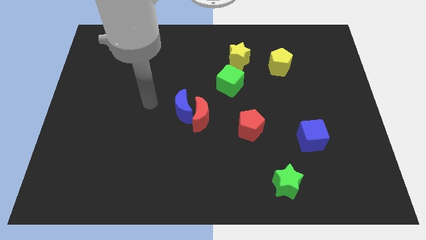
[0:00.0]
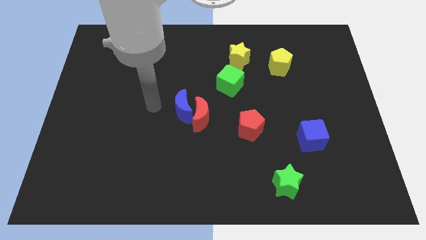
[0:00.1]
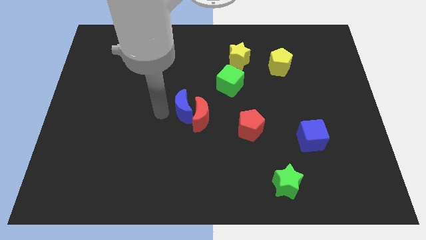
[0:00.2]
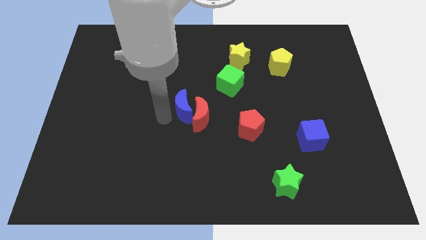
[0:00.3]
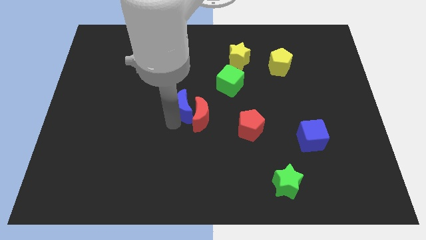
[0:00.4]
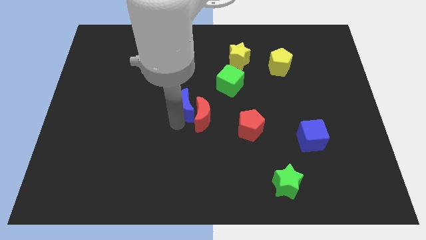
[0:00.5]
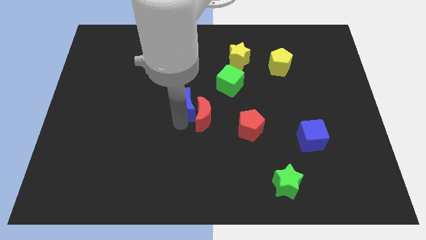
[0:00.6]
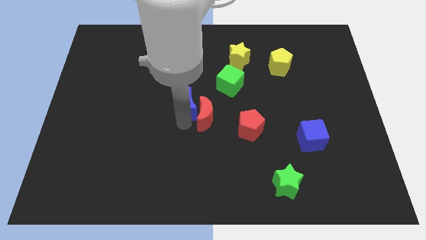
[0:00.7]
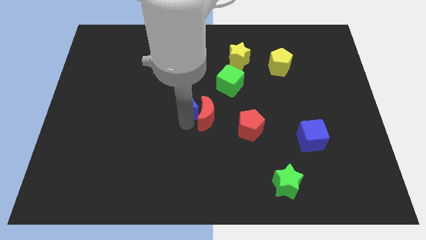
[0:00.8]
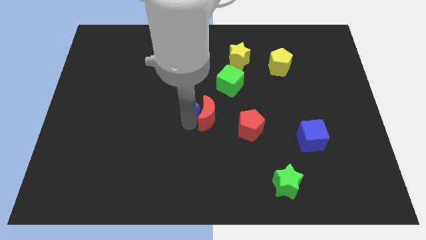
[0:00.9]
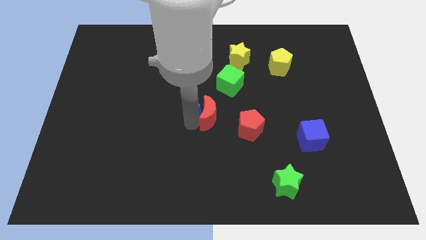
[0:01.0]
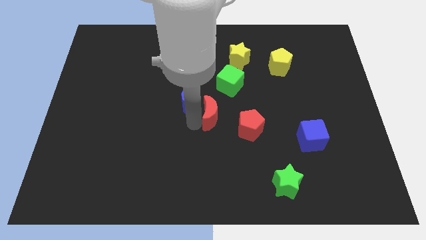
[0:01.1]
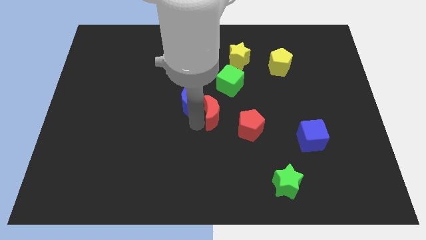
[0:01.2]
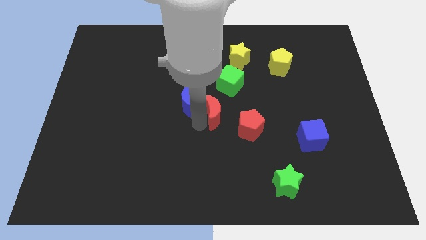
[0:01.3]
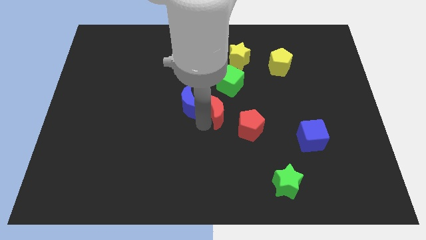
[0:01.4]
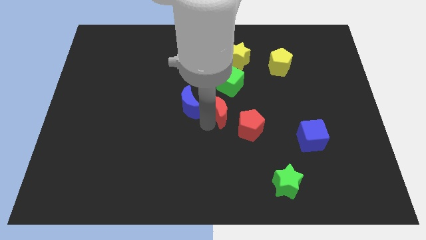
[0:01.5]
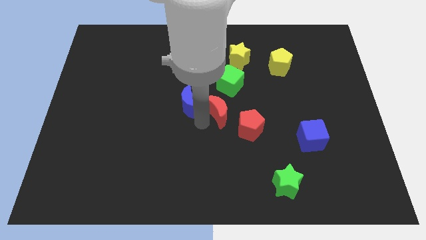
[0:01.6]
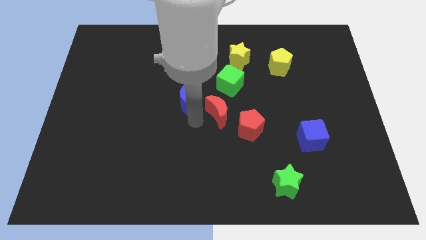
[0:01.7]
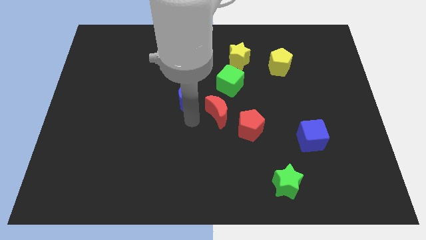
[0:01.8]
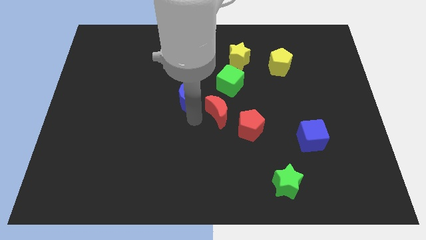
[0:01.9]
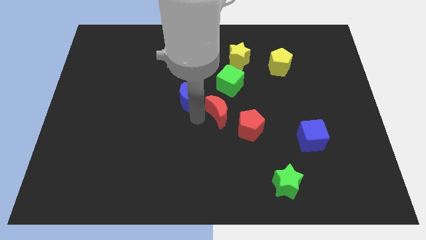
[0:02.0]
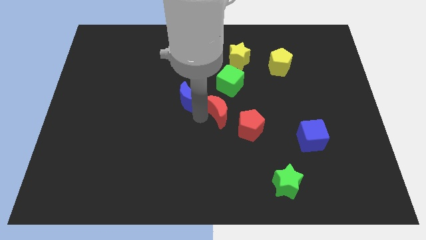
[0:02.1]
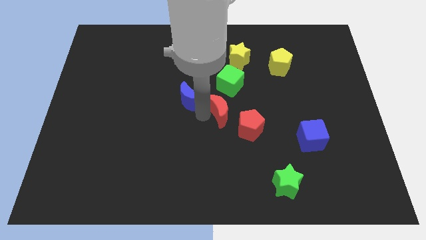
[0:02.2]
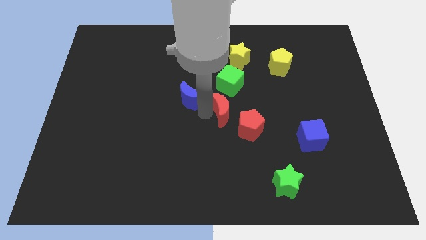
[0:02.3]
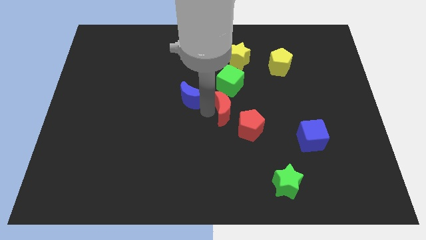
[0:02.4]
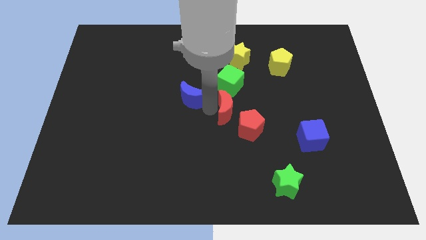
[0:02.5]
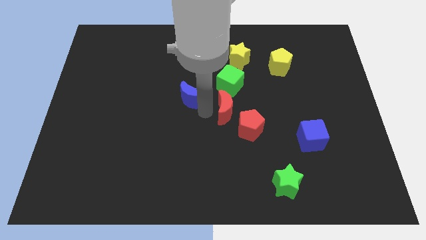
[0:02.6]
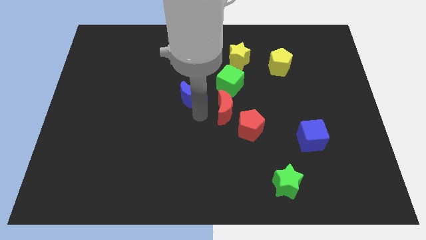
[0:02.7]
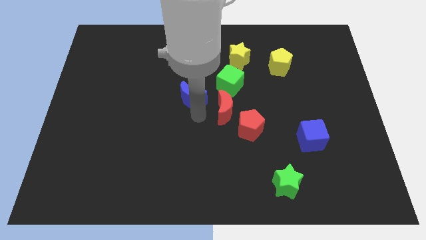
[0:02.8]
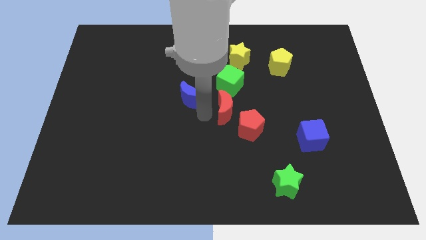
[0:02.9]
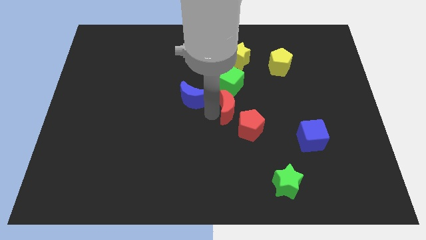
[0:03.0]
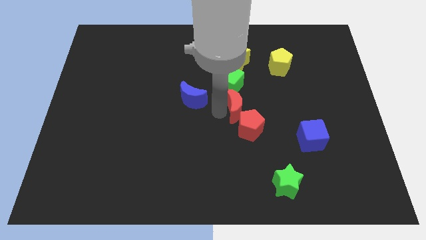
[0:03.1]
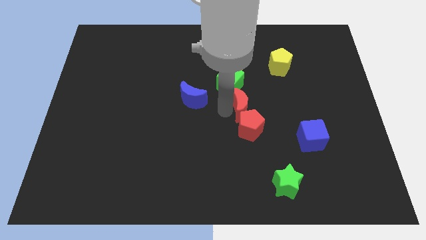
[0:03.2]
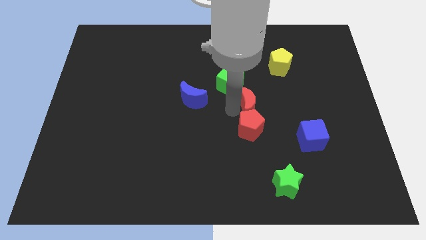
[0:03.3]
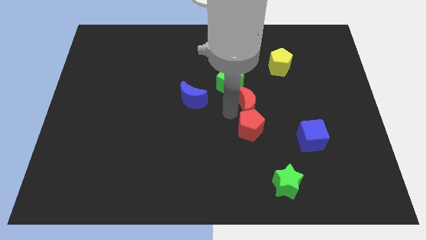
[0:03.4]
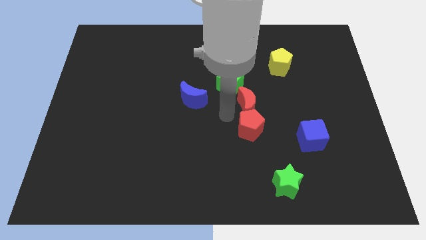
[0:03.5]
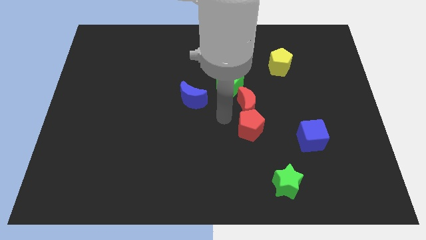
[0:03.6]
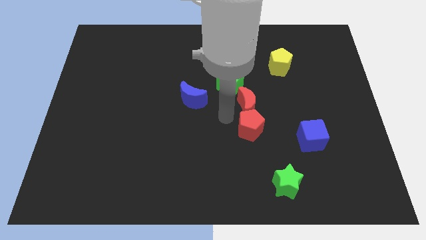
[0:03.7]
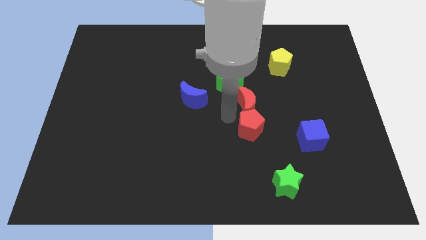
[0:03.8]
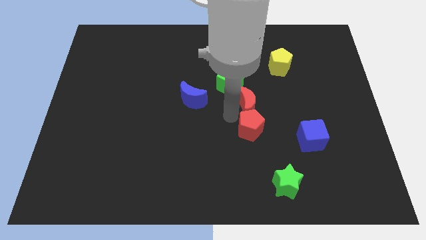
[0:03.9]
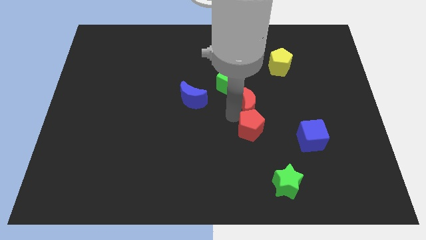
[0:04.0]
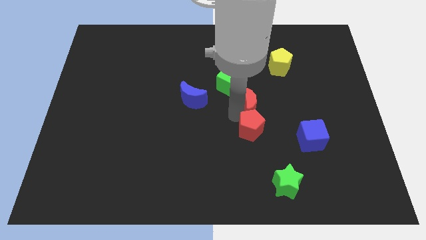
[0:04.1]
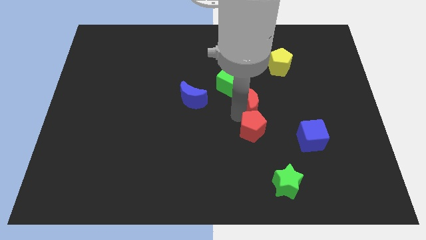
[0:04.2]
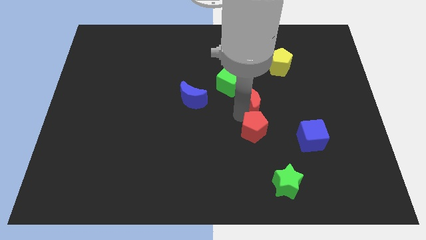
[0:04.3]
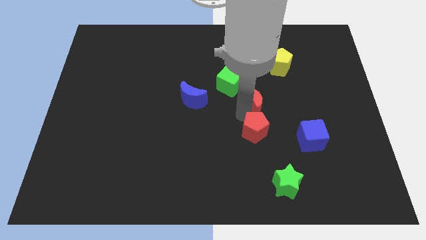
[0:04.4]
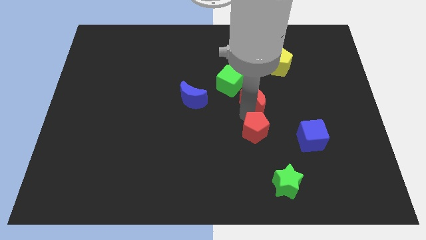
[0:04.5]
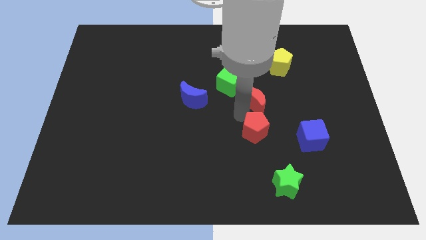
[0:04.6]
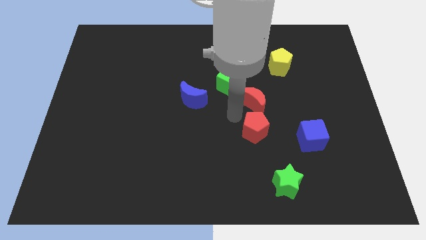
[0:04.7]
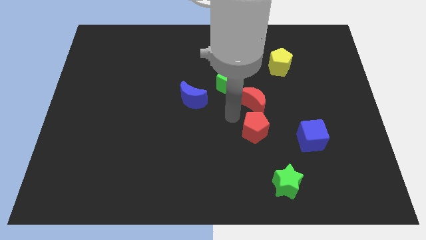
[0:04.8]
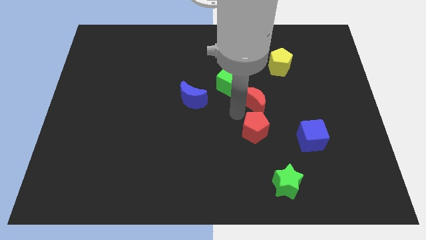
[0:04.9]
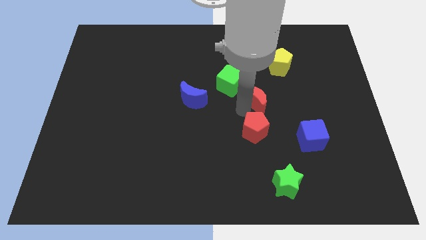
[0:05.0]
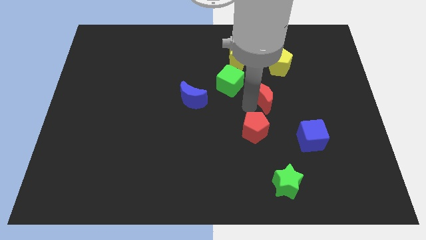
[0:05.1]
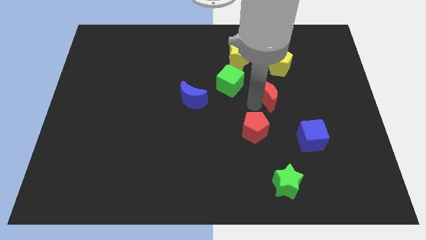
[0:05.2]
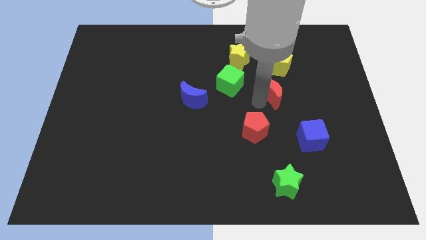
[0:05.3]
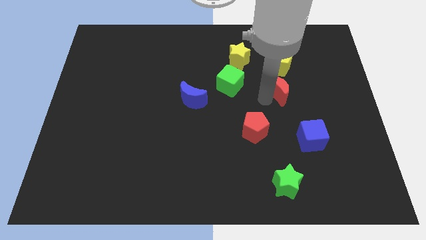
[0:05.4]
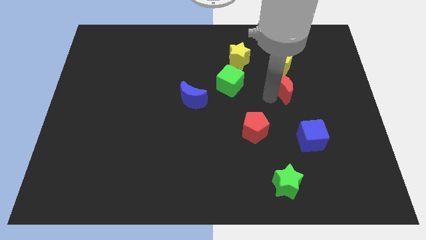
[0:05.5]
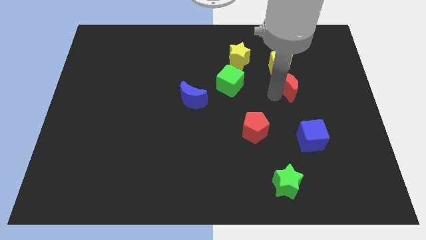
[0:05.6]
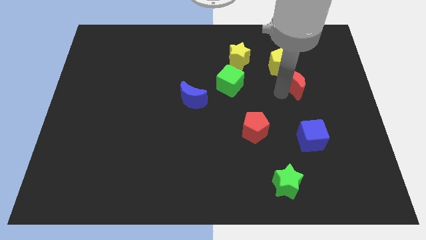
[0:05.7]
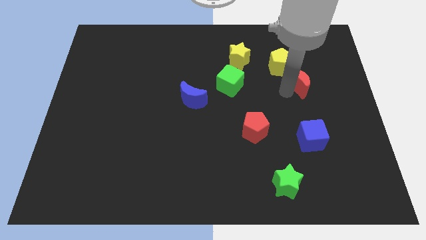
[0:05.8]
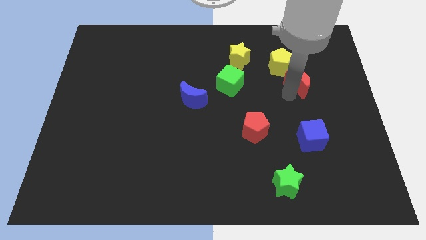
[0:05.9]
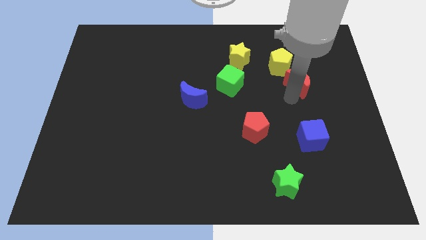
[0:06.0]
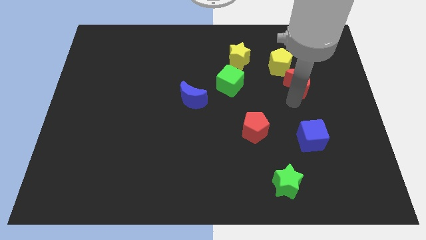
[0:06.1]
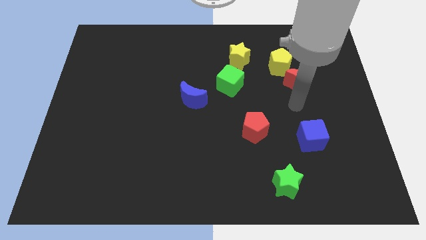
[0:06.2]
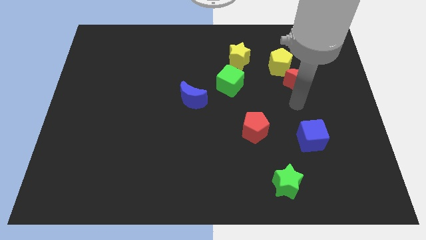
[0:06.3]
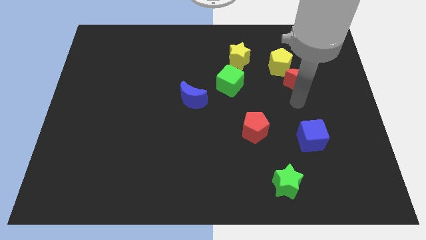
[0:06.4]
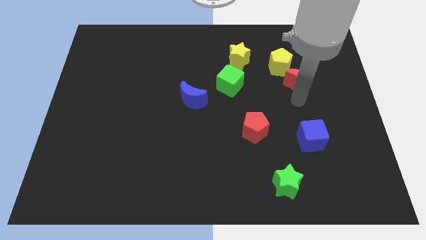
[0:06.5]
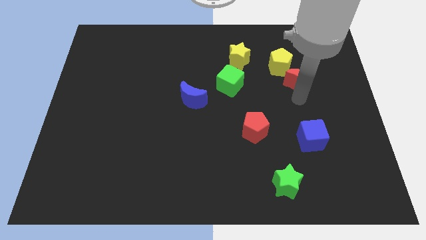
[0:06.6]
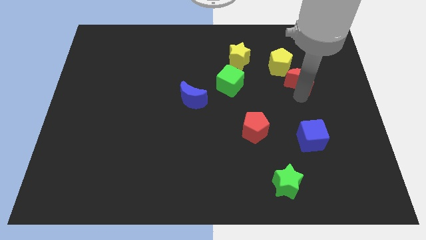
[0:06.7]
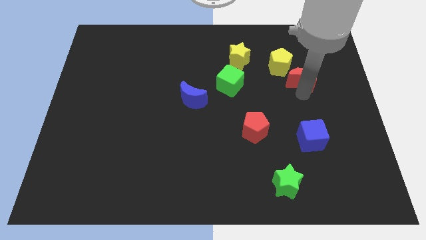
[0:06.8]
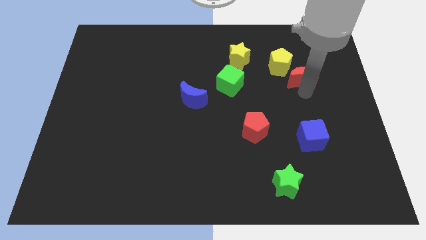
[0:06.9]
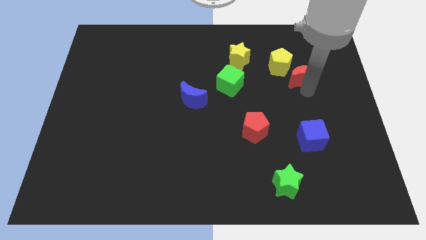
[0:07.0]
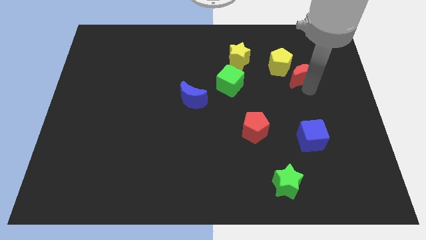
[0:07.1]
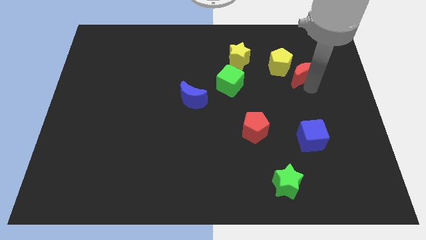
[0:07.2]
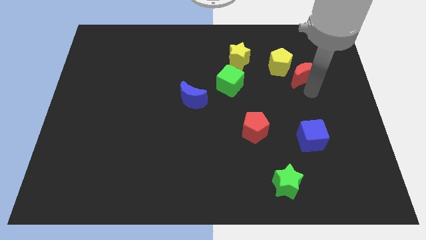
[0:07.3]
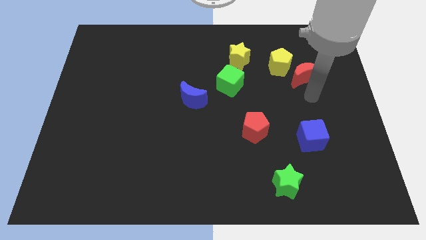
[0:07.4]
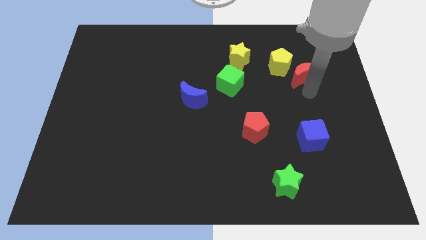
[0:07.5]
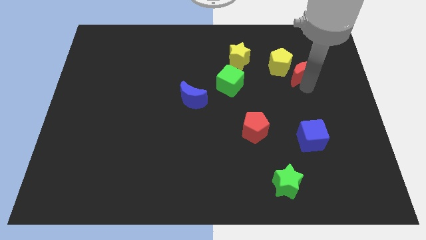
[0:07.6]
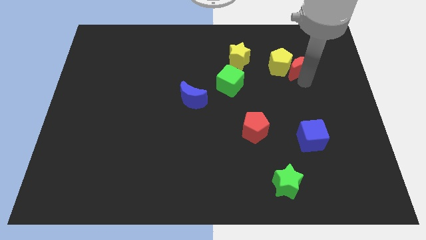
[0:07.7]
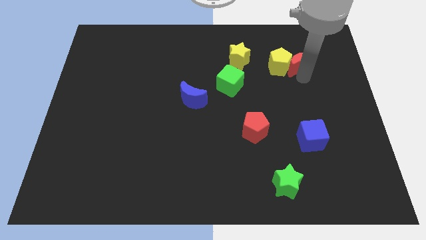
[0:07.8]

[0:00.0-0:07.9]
put the red moon right of the yellow star
